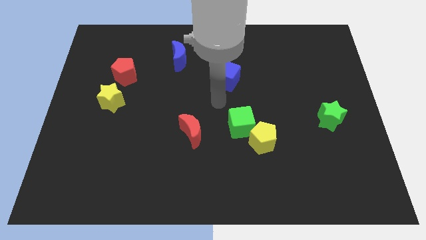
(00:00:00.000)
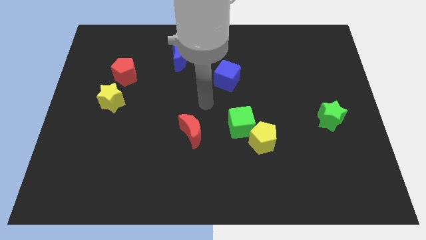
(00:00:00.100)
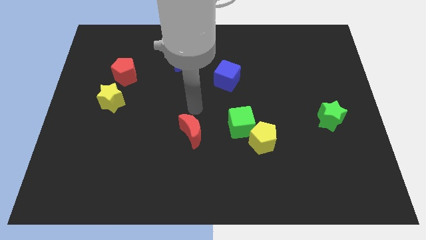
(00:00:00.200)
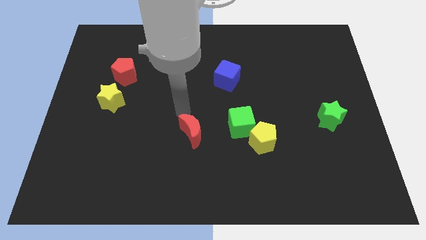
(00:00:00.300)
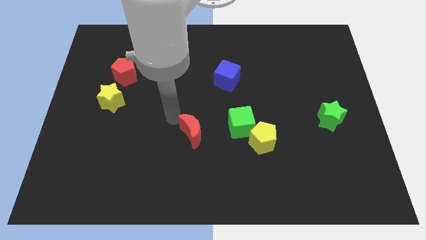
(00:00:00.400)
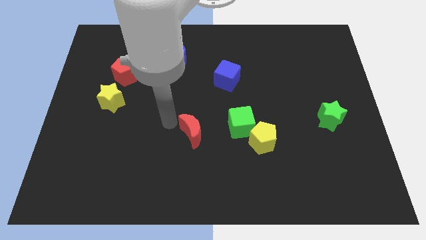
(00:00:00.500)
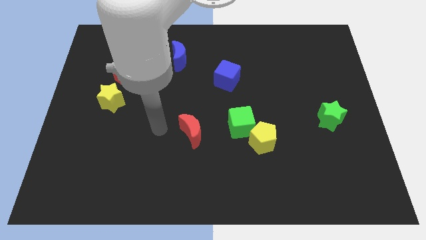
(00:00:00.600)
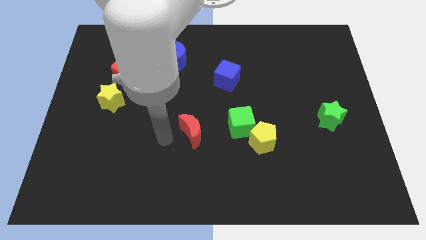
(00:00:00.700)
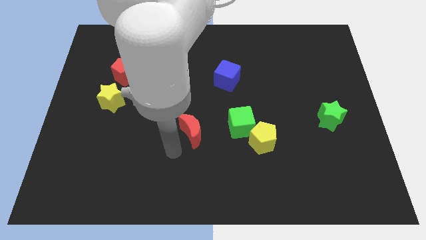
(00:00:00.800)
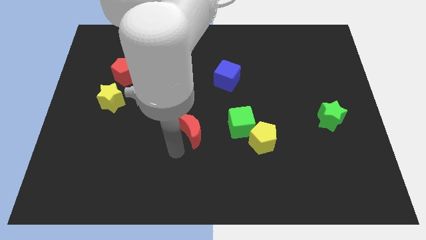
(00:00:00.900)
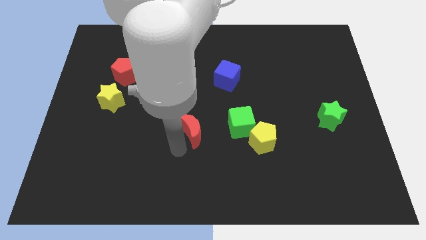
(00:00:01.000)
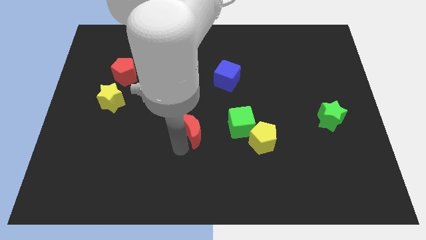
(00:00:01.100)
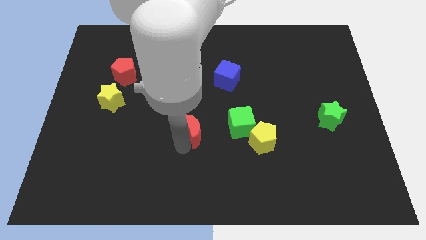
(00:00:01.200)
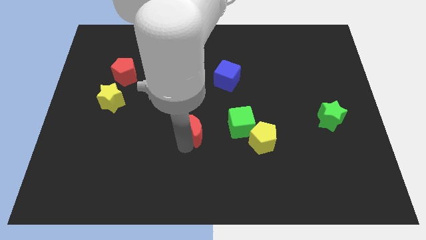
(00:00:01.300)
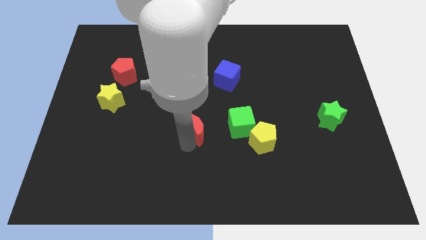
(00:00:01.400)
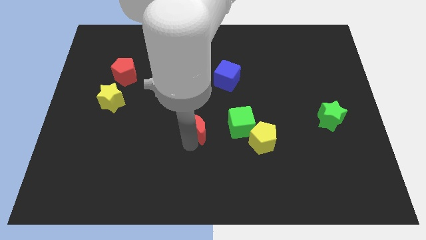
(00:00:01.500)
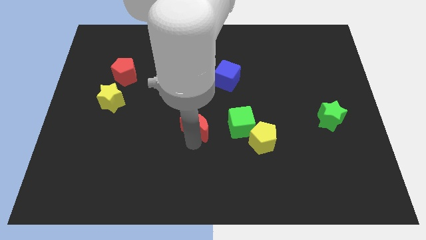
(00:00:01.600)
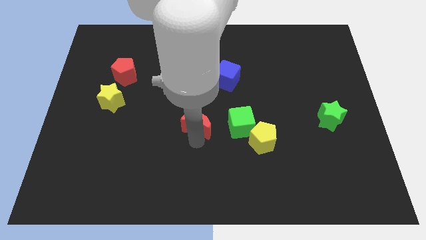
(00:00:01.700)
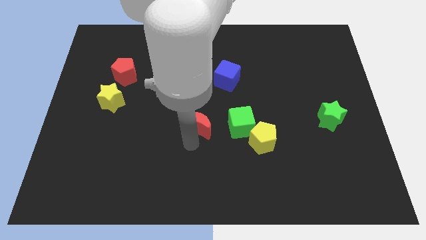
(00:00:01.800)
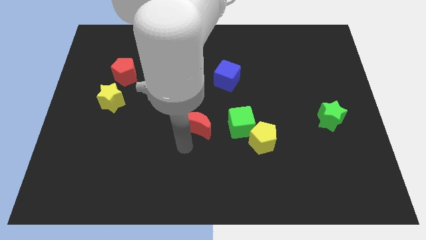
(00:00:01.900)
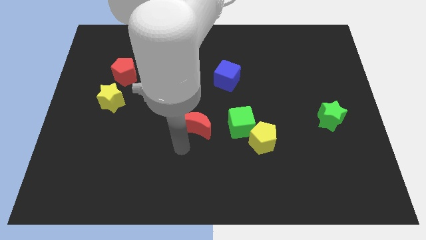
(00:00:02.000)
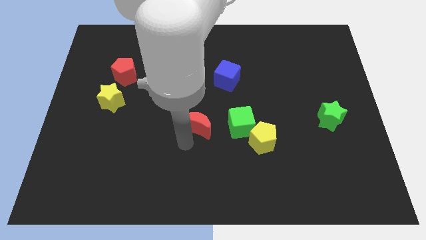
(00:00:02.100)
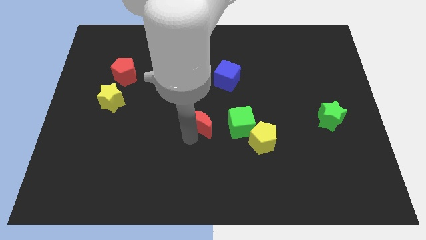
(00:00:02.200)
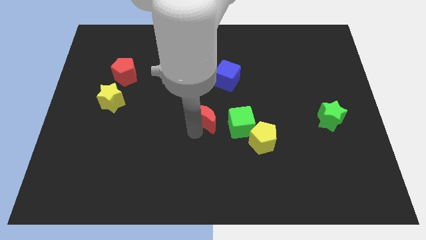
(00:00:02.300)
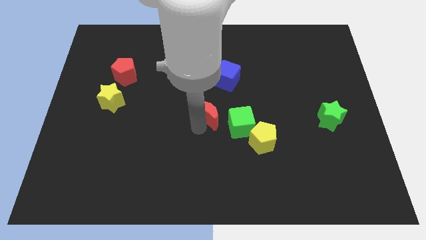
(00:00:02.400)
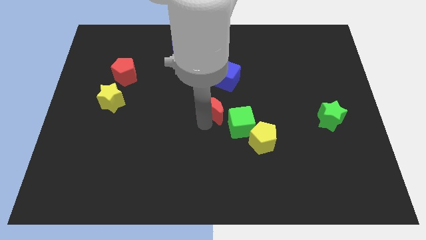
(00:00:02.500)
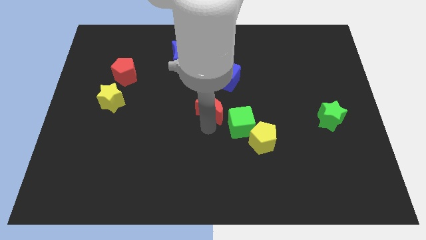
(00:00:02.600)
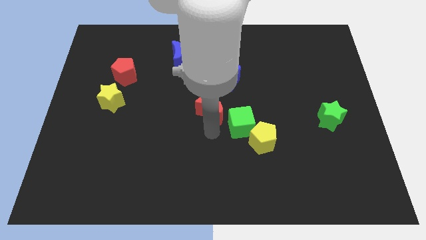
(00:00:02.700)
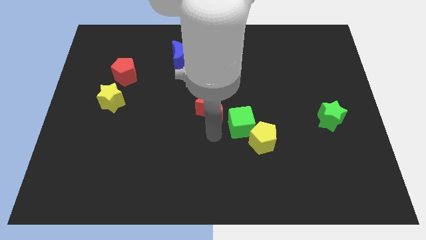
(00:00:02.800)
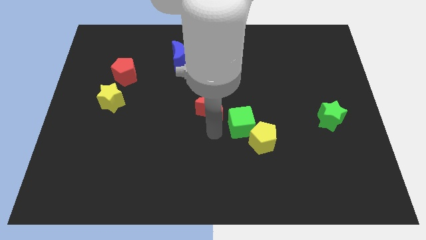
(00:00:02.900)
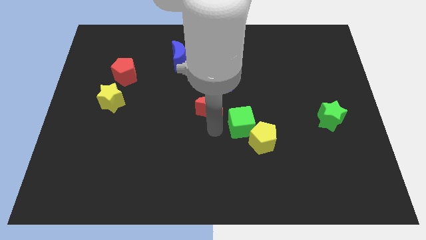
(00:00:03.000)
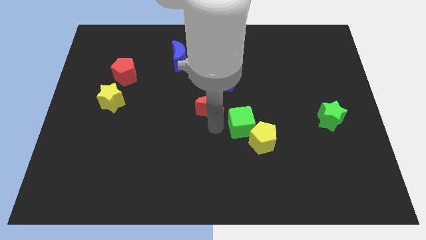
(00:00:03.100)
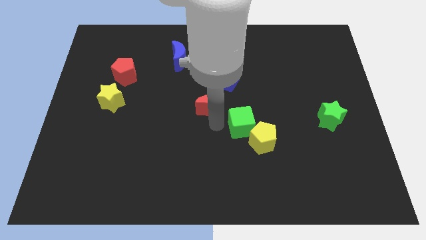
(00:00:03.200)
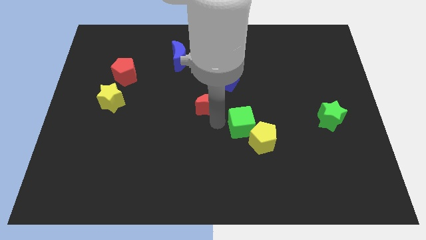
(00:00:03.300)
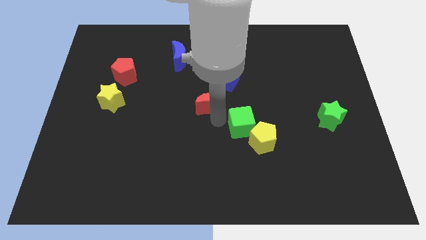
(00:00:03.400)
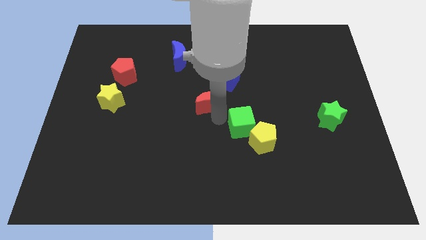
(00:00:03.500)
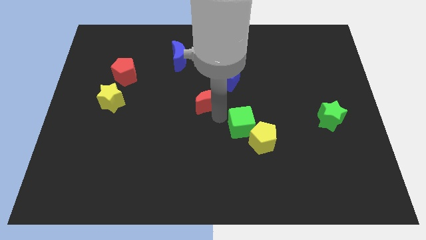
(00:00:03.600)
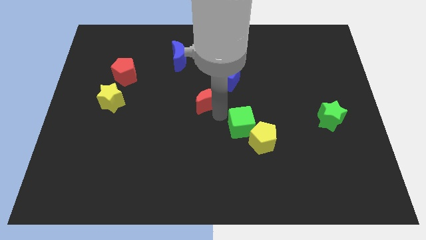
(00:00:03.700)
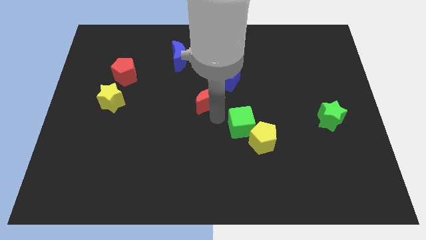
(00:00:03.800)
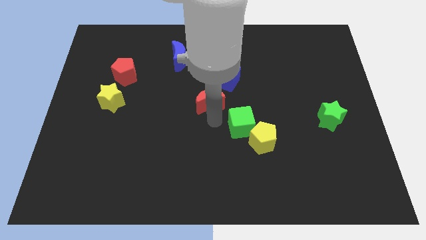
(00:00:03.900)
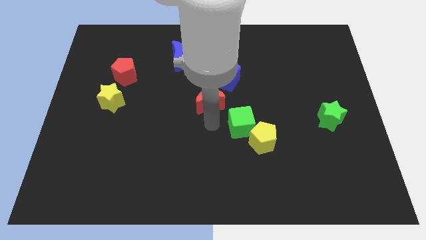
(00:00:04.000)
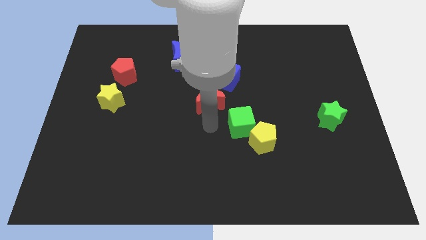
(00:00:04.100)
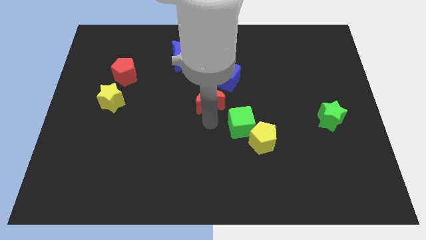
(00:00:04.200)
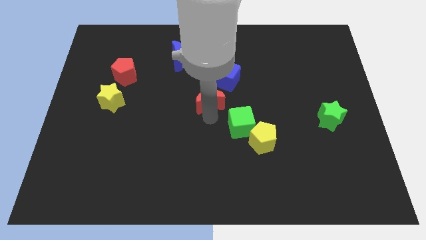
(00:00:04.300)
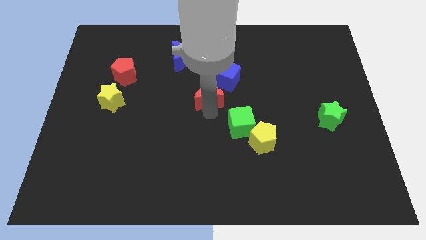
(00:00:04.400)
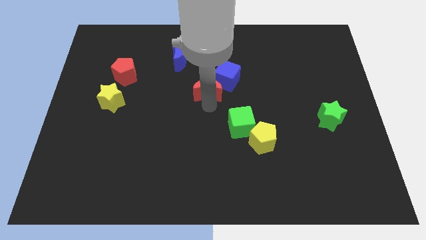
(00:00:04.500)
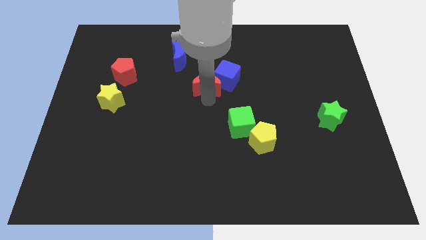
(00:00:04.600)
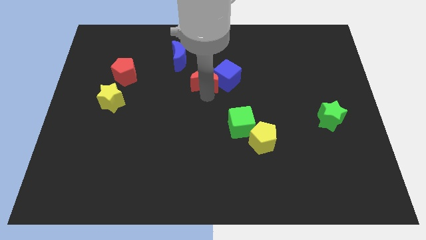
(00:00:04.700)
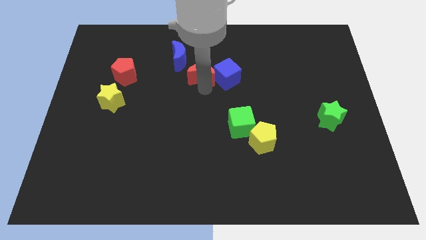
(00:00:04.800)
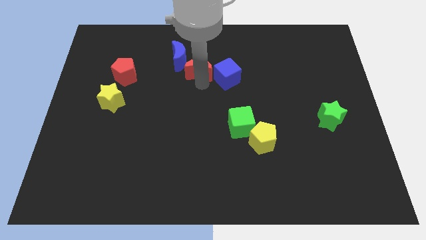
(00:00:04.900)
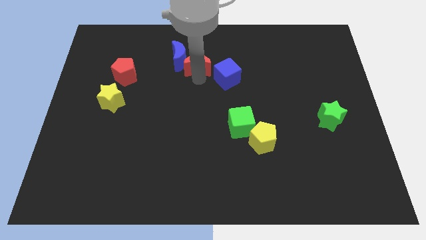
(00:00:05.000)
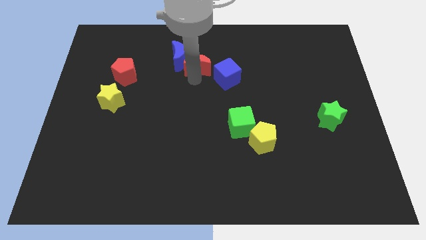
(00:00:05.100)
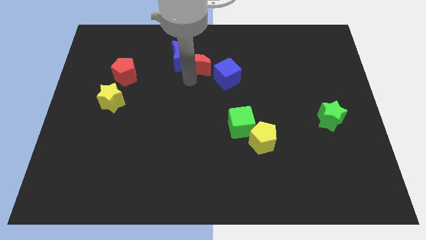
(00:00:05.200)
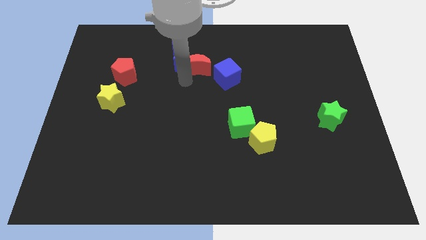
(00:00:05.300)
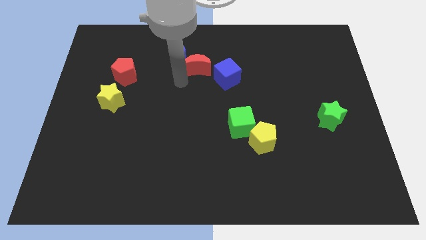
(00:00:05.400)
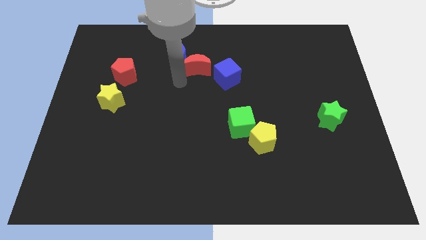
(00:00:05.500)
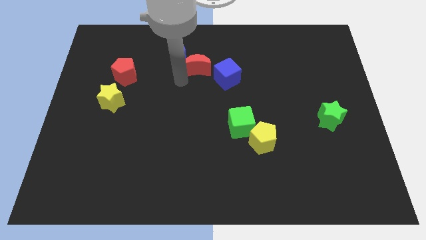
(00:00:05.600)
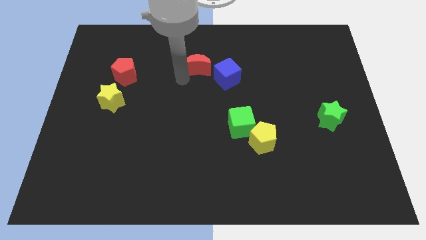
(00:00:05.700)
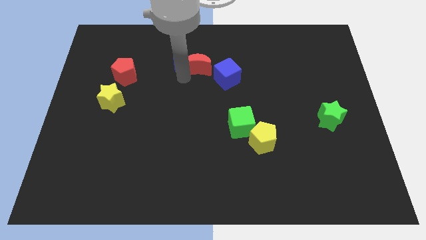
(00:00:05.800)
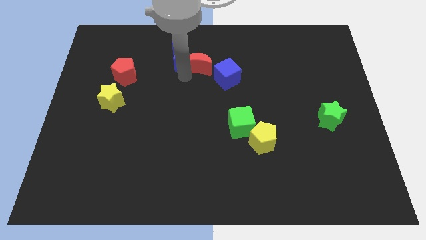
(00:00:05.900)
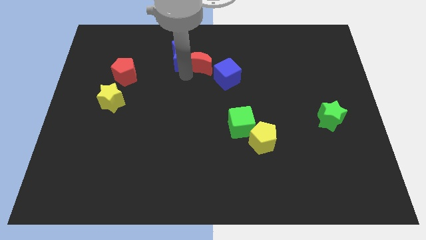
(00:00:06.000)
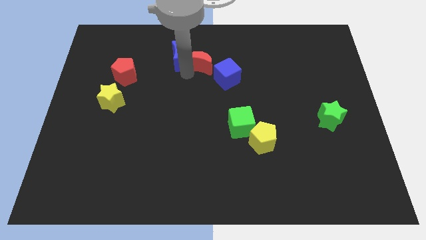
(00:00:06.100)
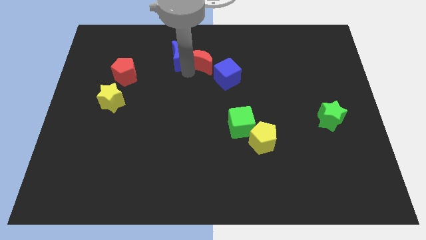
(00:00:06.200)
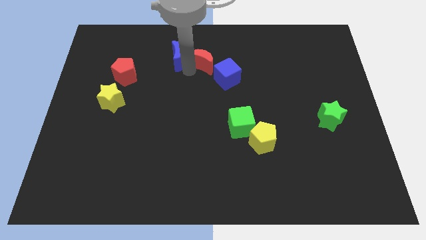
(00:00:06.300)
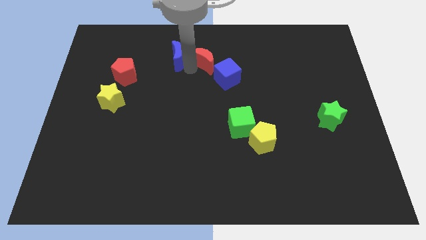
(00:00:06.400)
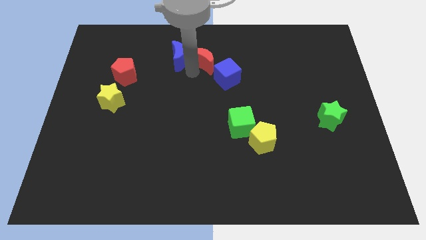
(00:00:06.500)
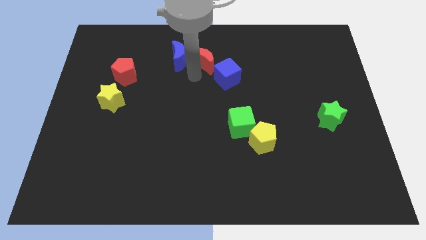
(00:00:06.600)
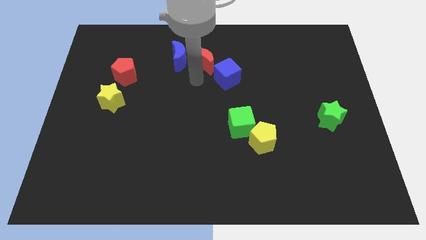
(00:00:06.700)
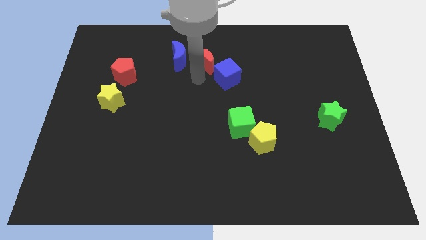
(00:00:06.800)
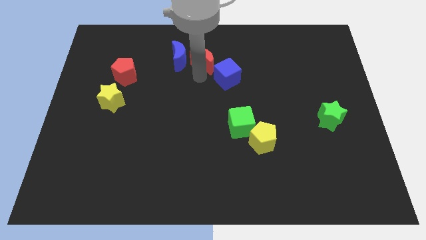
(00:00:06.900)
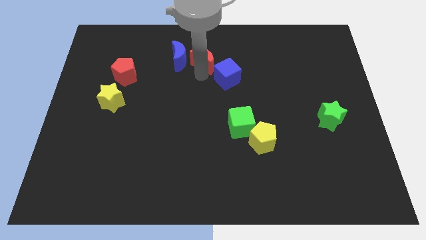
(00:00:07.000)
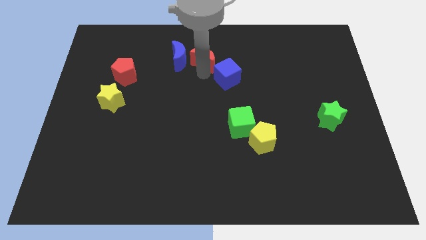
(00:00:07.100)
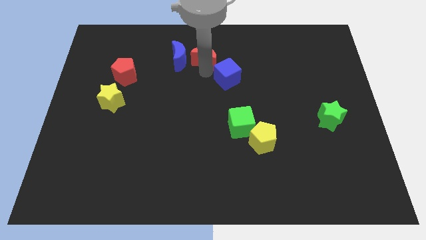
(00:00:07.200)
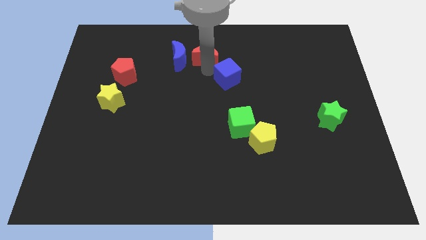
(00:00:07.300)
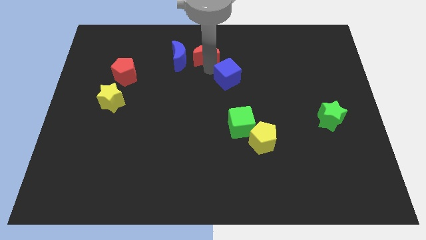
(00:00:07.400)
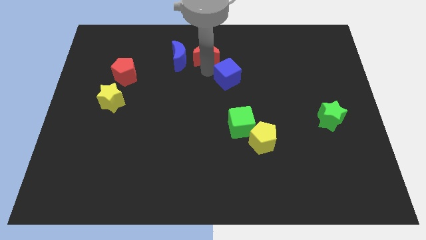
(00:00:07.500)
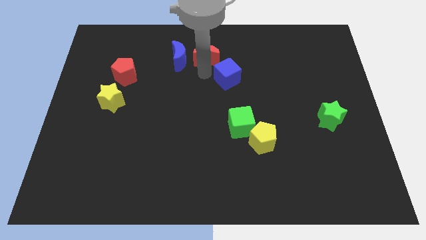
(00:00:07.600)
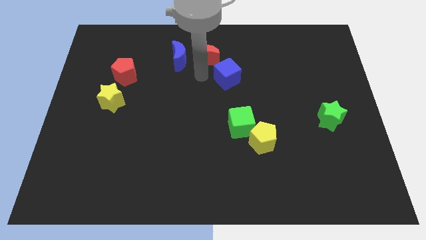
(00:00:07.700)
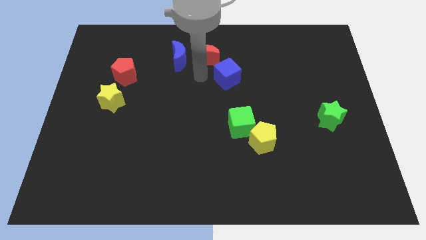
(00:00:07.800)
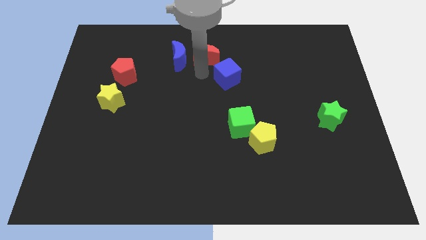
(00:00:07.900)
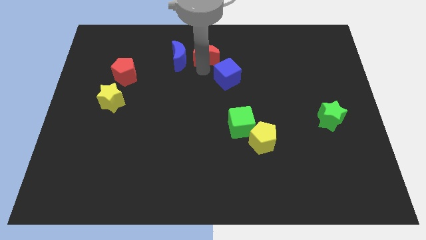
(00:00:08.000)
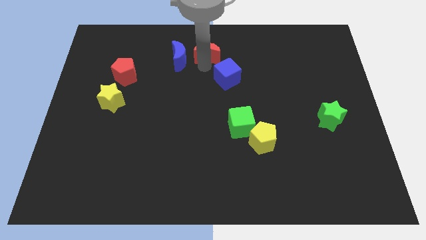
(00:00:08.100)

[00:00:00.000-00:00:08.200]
move the red moon to the top
